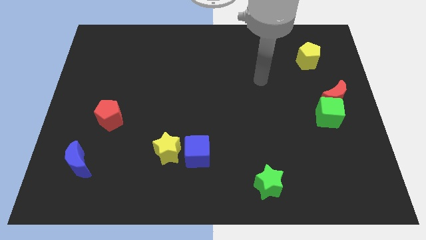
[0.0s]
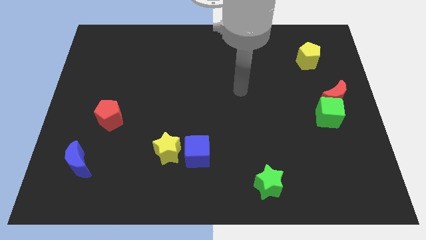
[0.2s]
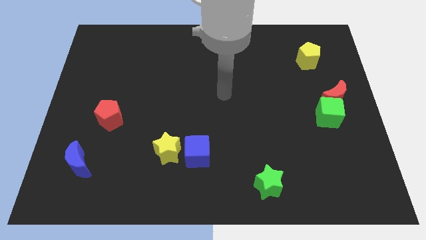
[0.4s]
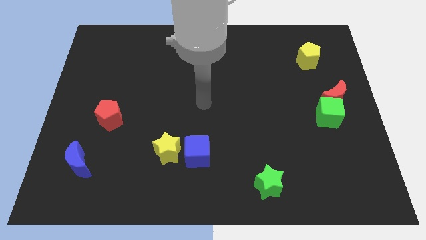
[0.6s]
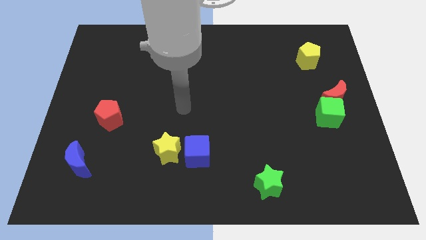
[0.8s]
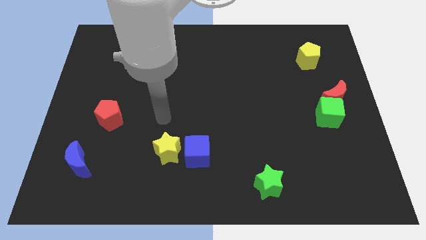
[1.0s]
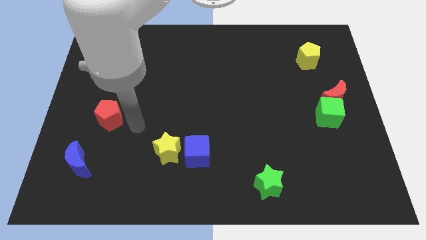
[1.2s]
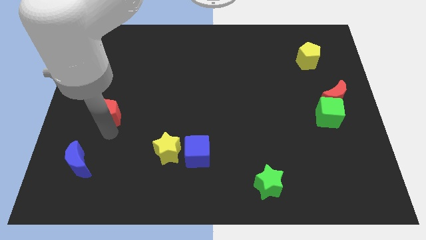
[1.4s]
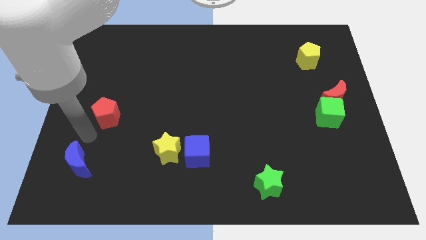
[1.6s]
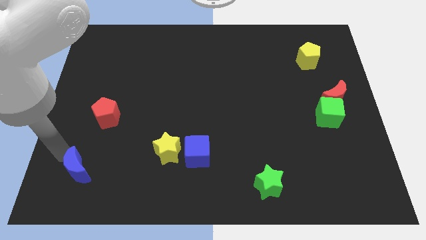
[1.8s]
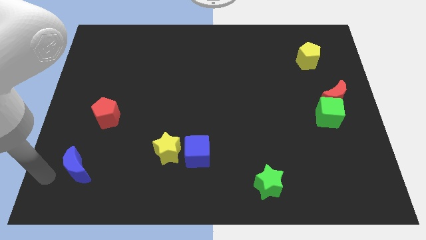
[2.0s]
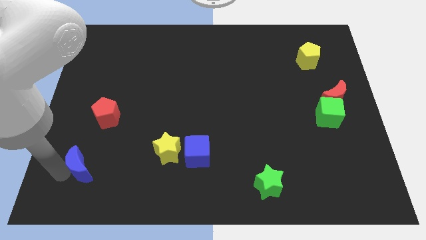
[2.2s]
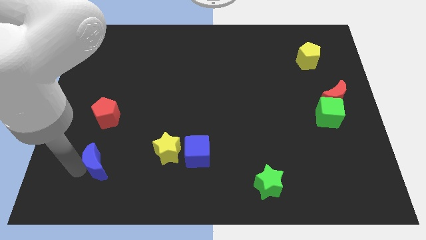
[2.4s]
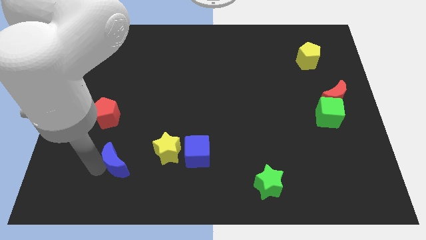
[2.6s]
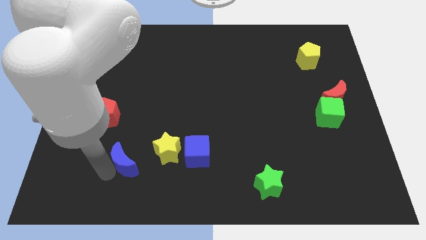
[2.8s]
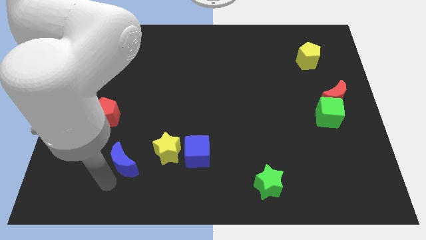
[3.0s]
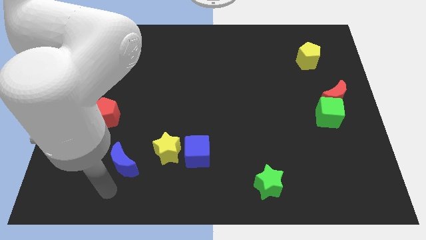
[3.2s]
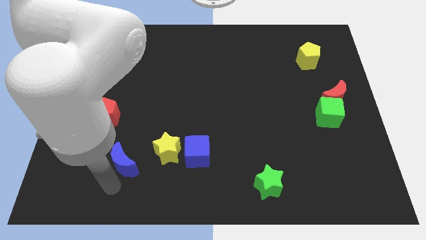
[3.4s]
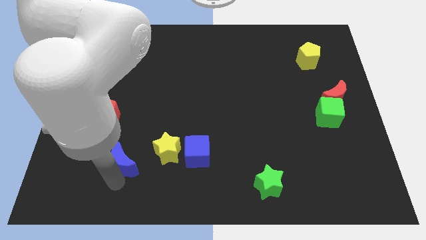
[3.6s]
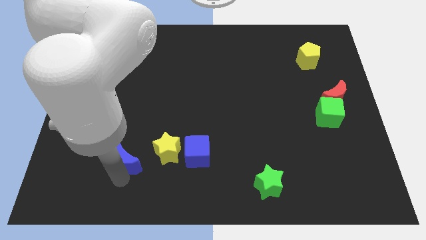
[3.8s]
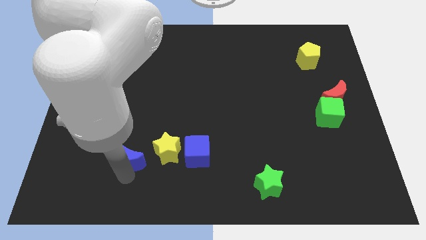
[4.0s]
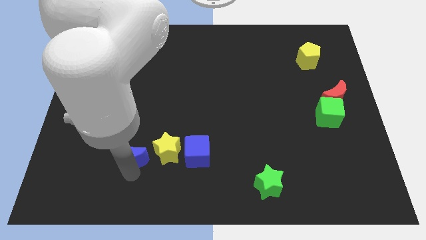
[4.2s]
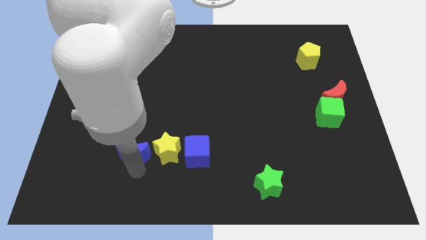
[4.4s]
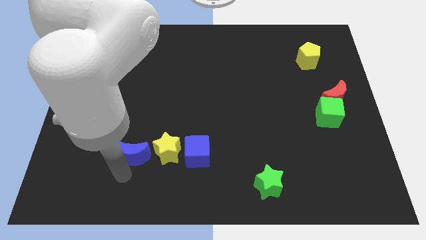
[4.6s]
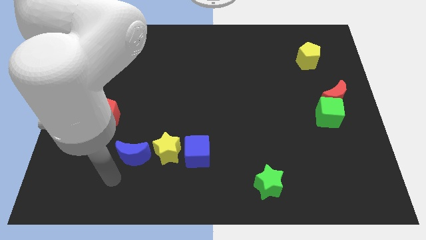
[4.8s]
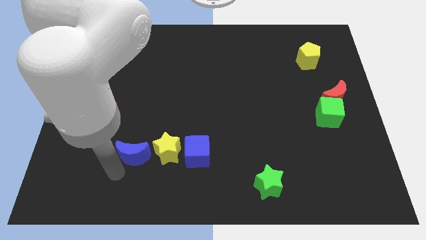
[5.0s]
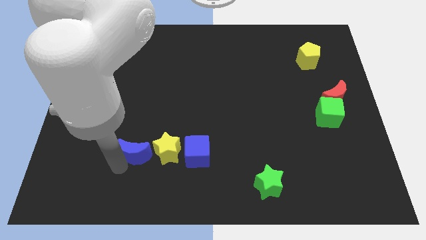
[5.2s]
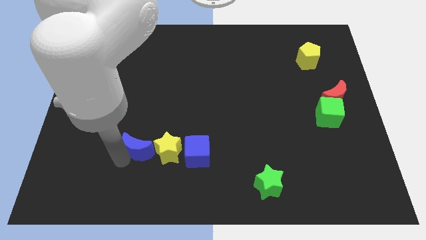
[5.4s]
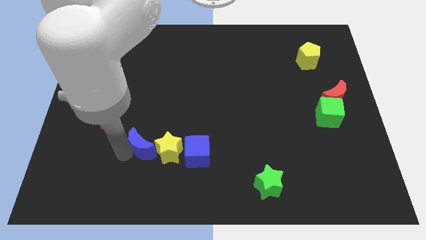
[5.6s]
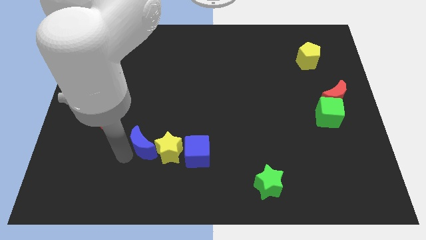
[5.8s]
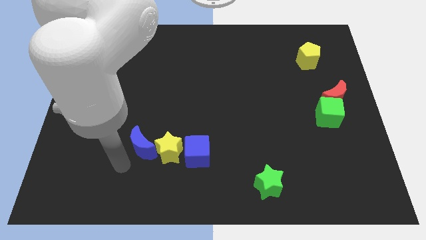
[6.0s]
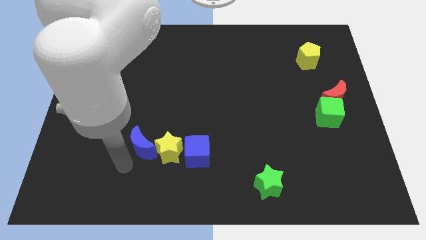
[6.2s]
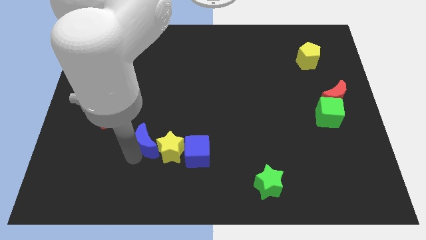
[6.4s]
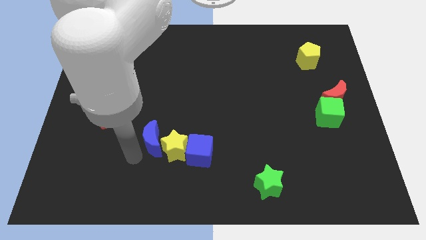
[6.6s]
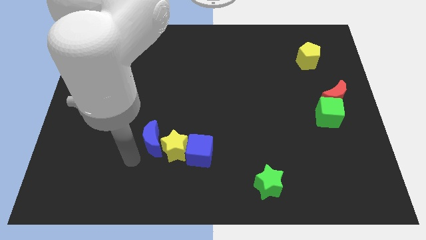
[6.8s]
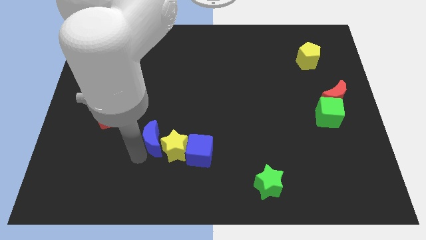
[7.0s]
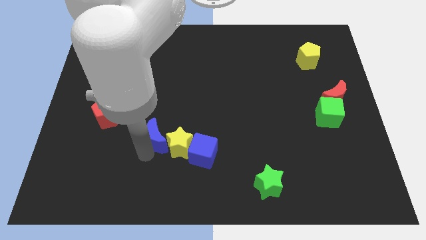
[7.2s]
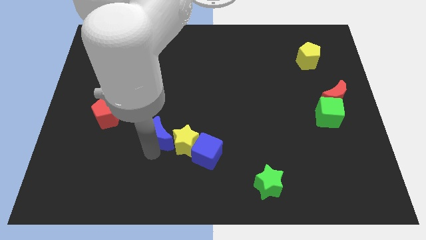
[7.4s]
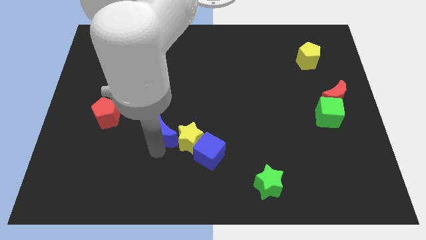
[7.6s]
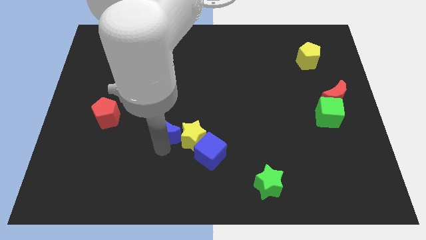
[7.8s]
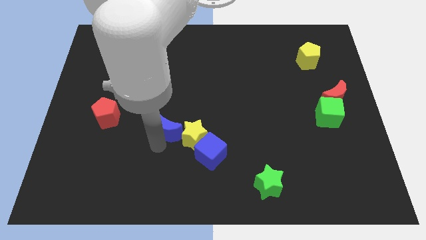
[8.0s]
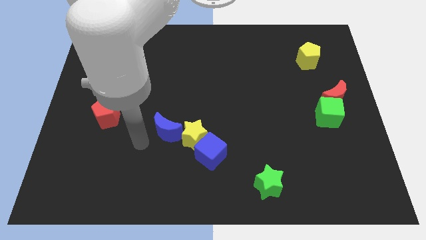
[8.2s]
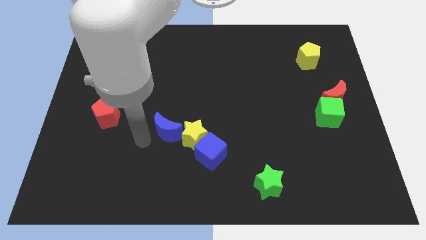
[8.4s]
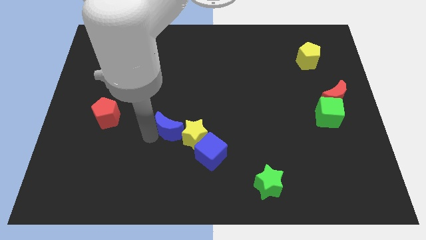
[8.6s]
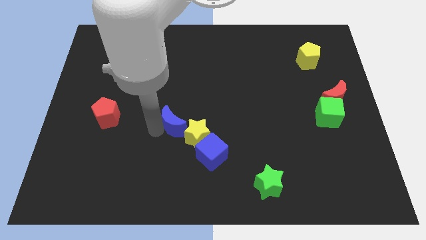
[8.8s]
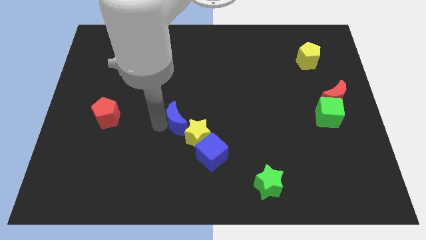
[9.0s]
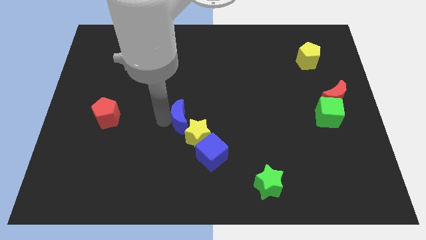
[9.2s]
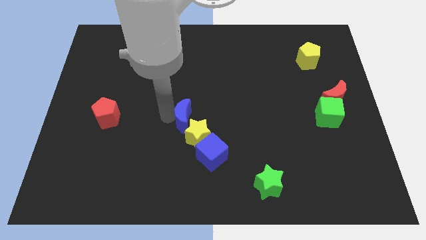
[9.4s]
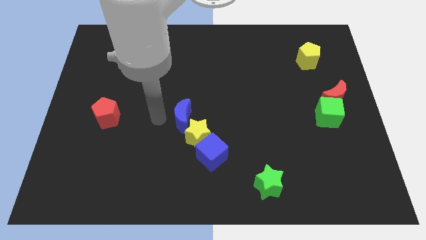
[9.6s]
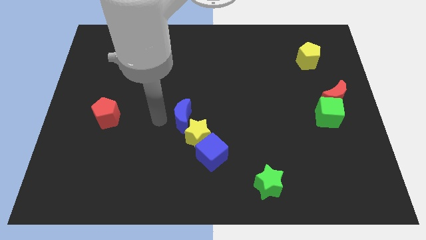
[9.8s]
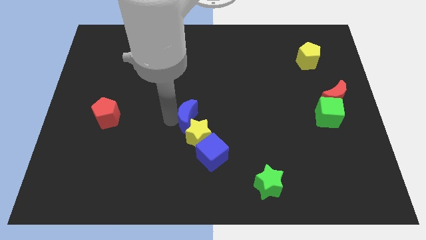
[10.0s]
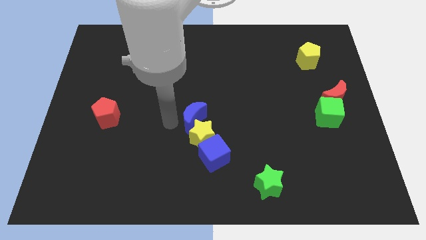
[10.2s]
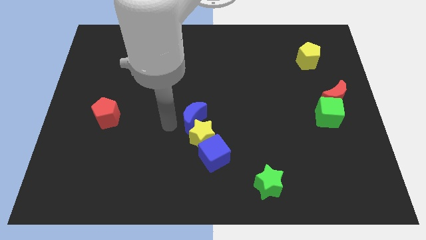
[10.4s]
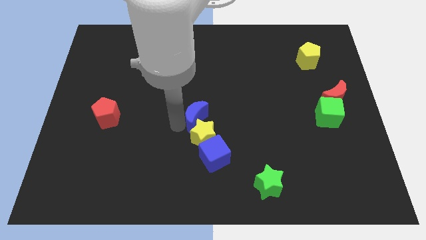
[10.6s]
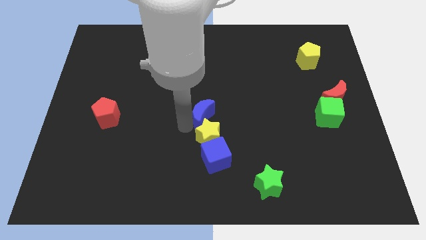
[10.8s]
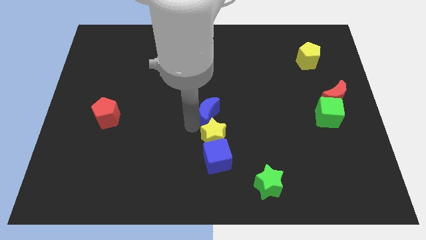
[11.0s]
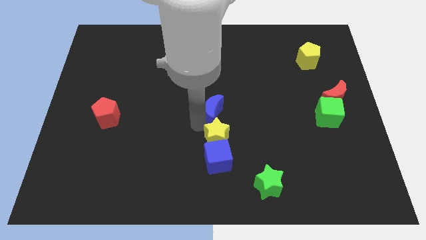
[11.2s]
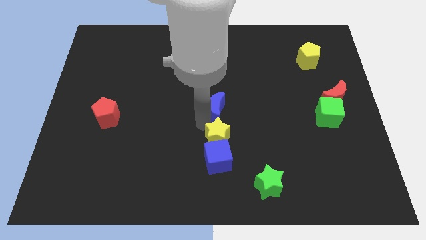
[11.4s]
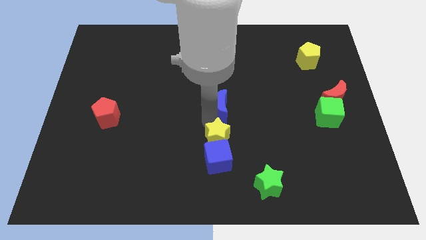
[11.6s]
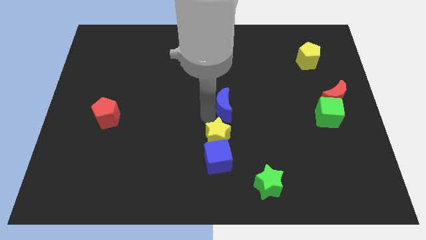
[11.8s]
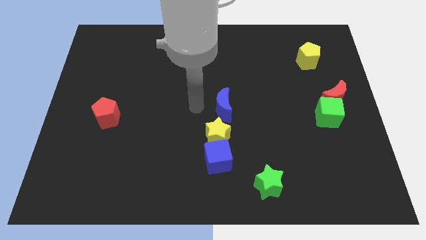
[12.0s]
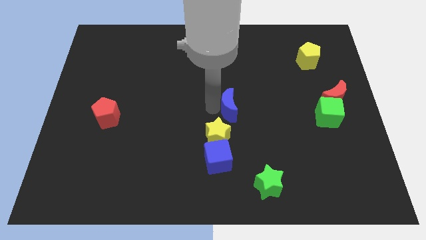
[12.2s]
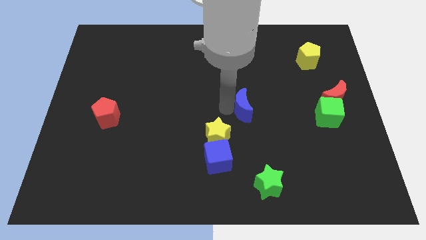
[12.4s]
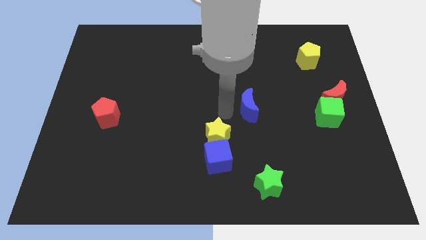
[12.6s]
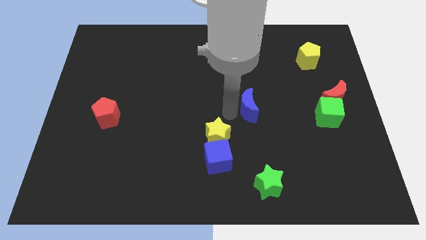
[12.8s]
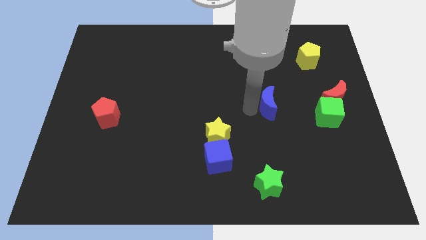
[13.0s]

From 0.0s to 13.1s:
push the blue moon just left of the red moon
